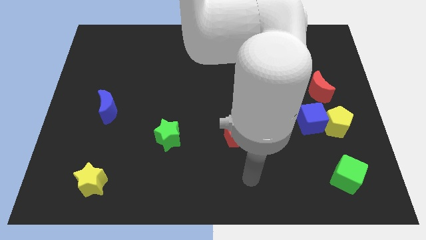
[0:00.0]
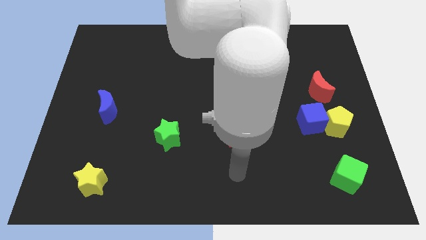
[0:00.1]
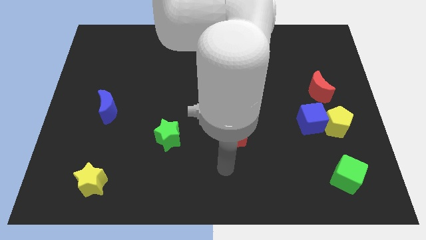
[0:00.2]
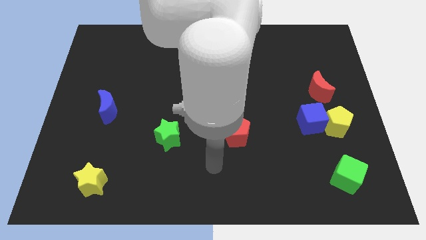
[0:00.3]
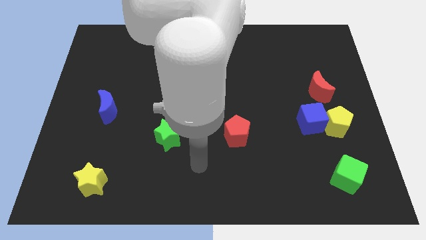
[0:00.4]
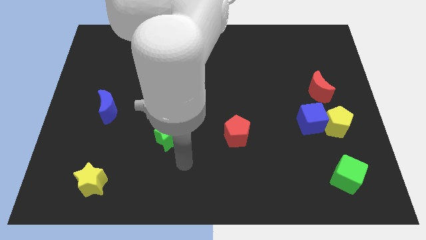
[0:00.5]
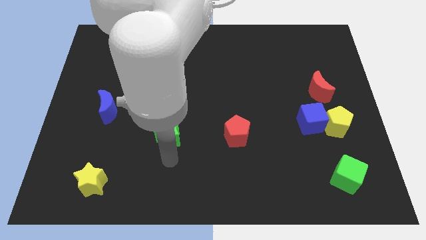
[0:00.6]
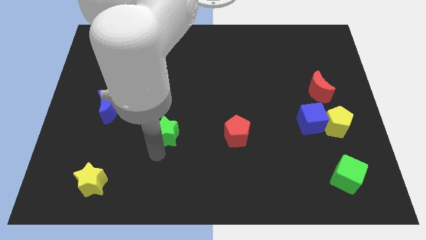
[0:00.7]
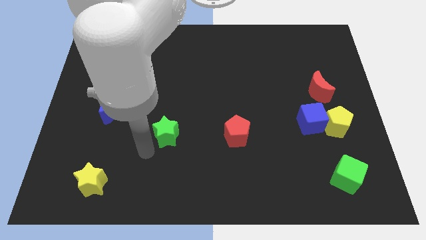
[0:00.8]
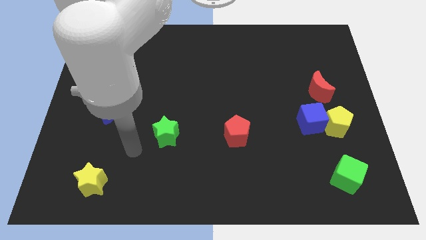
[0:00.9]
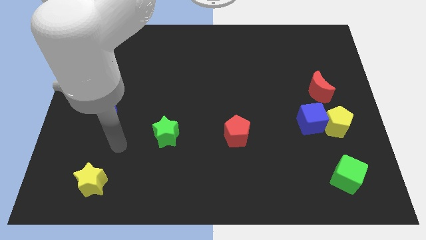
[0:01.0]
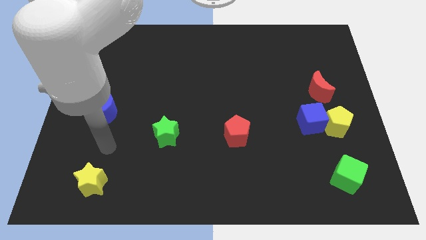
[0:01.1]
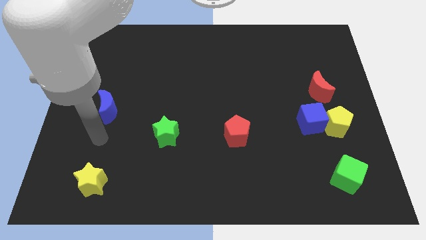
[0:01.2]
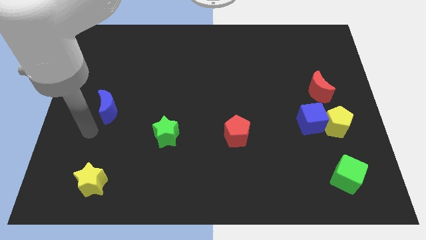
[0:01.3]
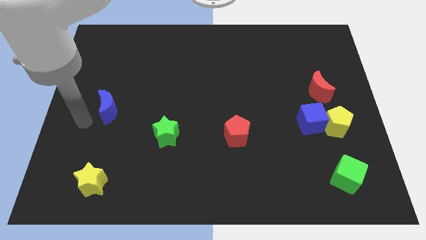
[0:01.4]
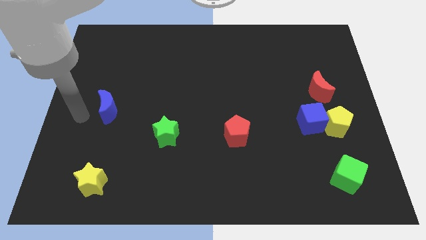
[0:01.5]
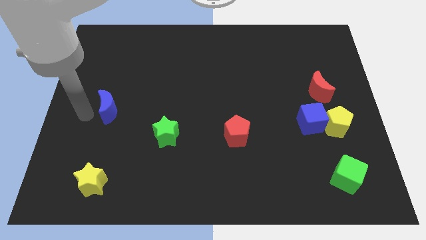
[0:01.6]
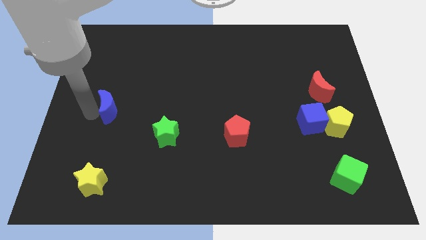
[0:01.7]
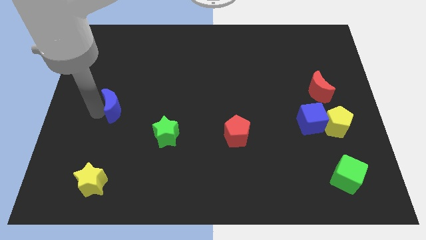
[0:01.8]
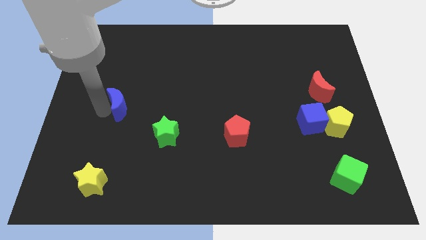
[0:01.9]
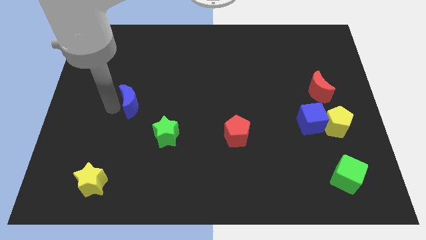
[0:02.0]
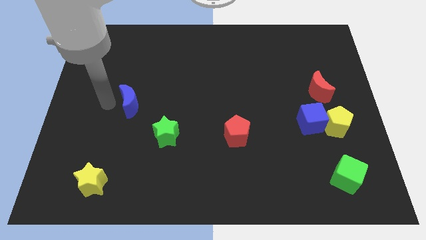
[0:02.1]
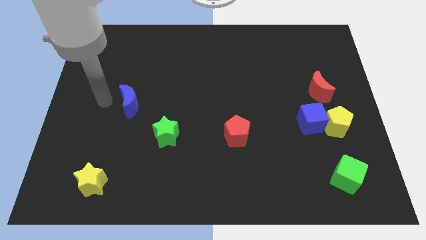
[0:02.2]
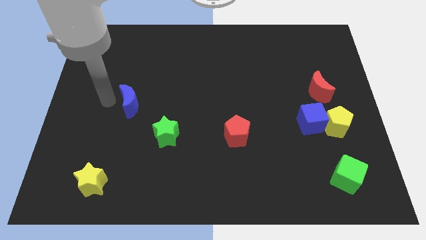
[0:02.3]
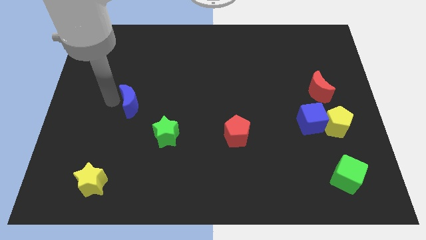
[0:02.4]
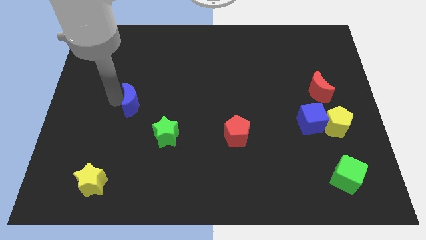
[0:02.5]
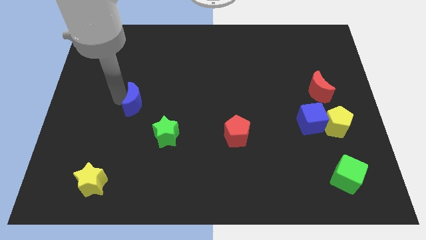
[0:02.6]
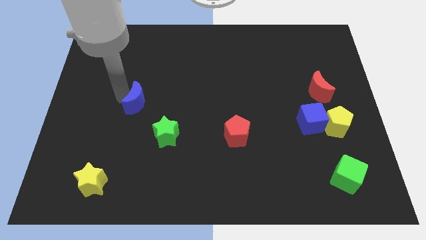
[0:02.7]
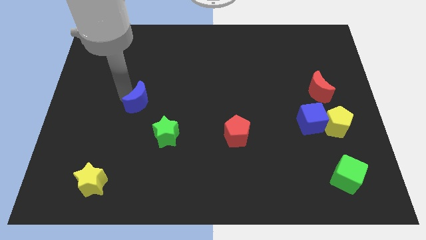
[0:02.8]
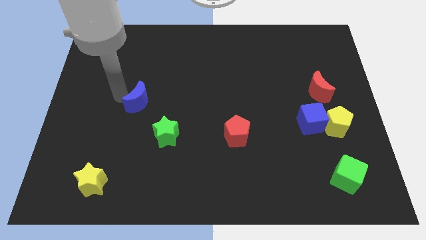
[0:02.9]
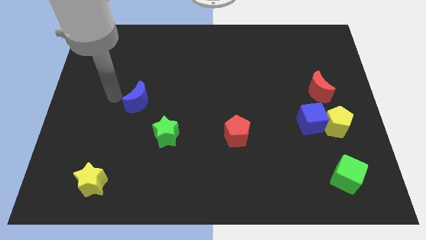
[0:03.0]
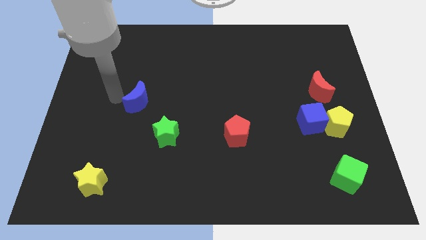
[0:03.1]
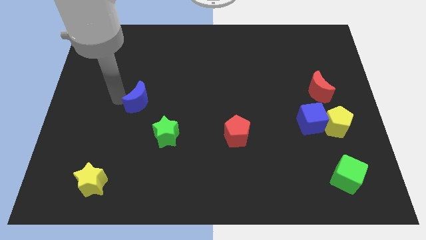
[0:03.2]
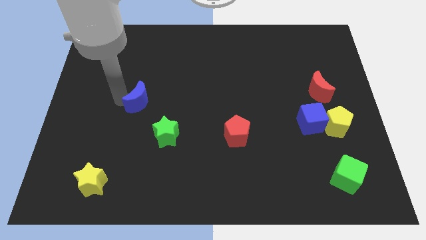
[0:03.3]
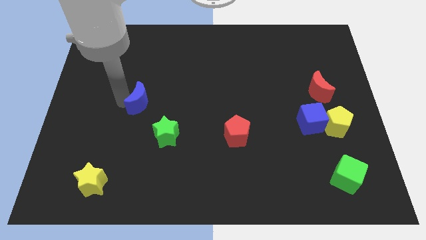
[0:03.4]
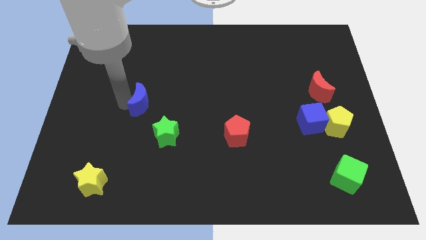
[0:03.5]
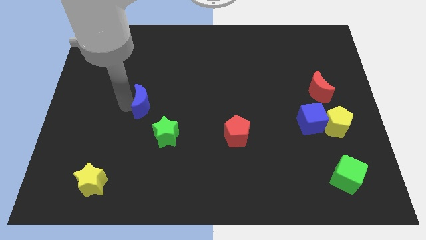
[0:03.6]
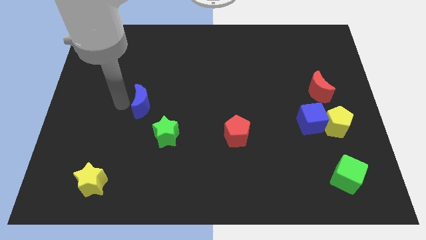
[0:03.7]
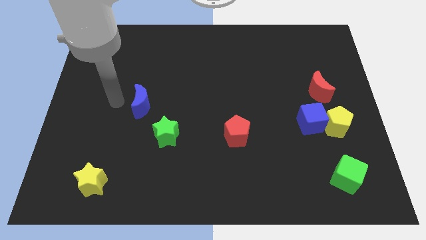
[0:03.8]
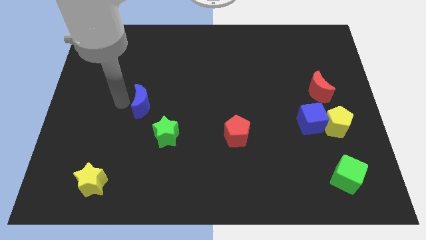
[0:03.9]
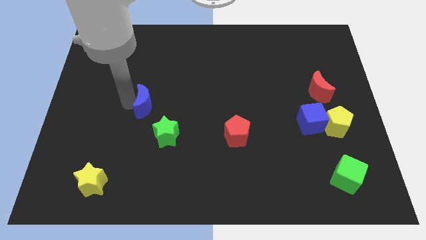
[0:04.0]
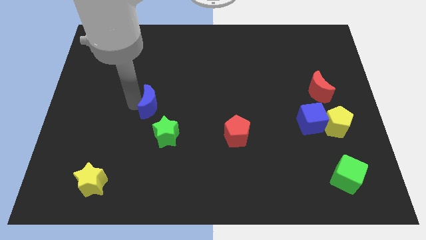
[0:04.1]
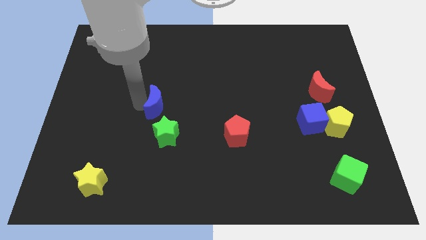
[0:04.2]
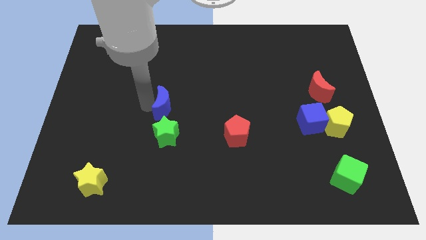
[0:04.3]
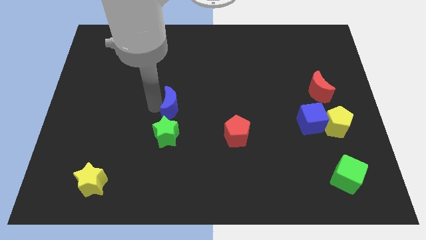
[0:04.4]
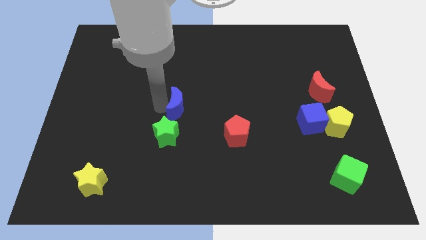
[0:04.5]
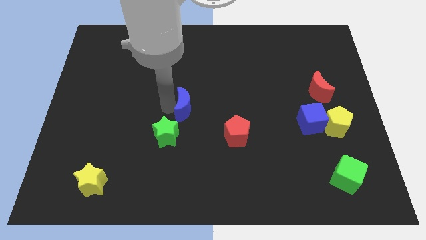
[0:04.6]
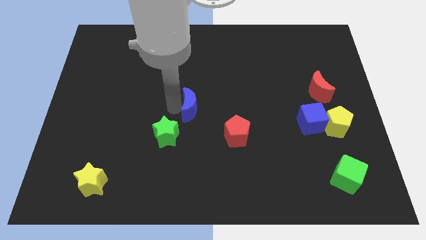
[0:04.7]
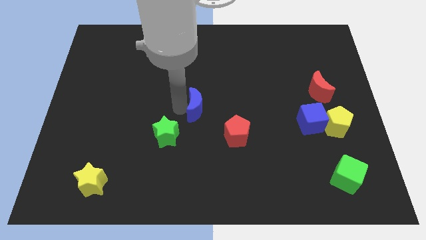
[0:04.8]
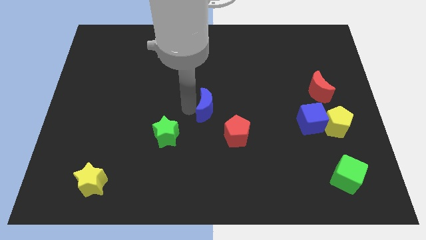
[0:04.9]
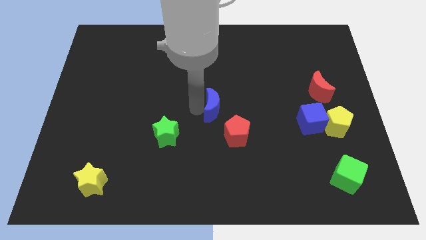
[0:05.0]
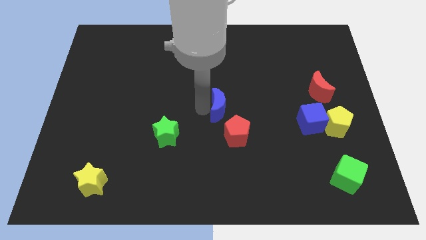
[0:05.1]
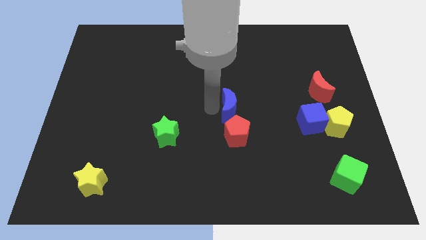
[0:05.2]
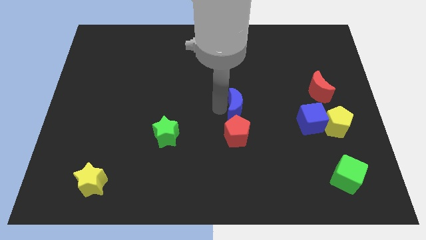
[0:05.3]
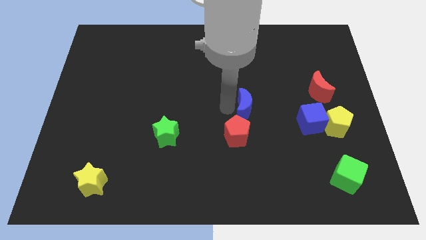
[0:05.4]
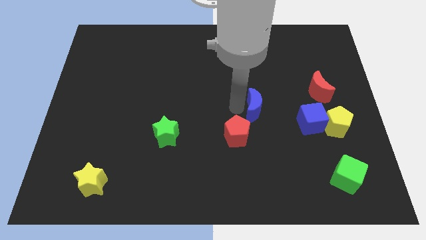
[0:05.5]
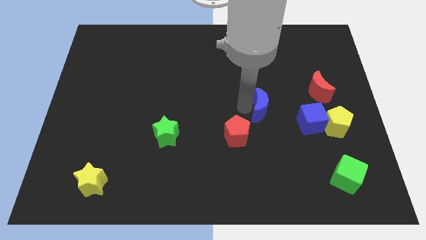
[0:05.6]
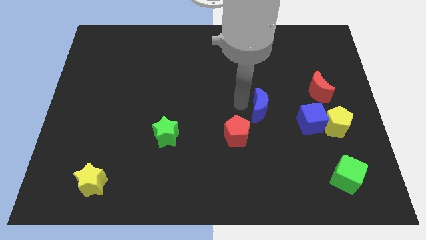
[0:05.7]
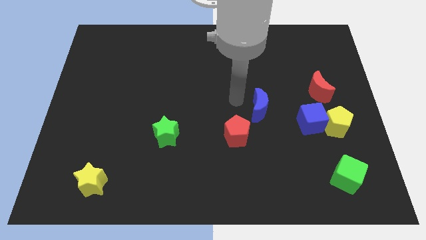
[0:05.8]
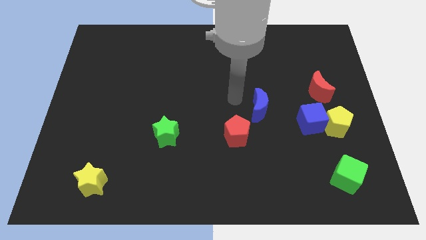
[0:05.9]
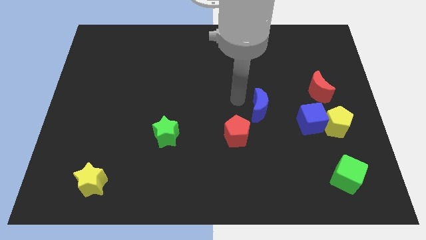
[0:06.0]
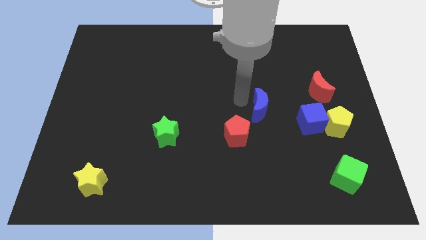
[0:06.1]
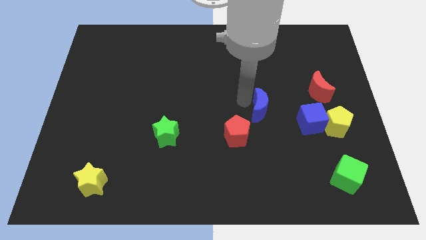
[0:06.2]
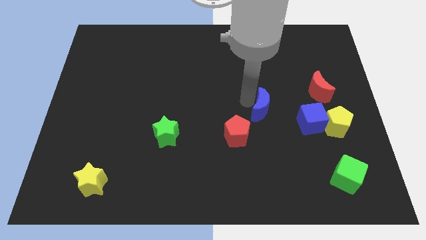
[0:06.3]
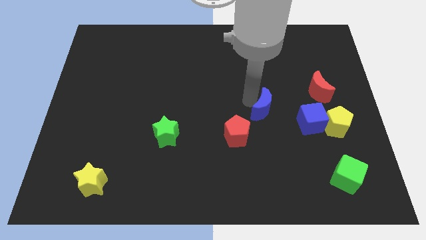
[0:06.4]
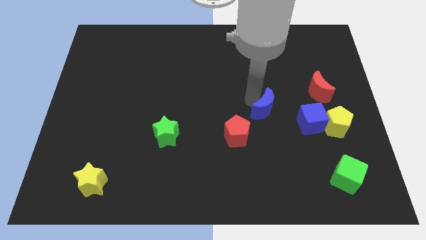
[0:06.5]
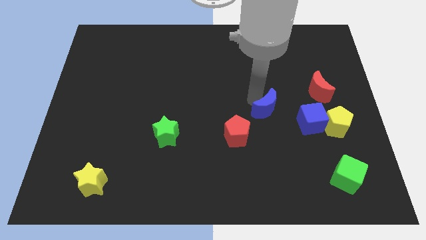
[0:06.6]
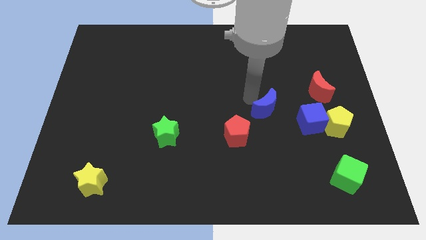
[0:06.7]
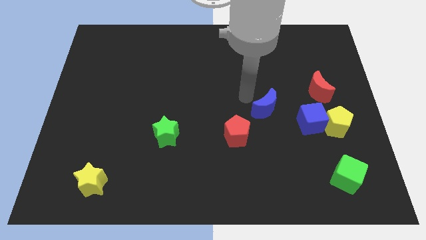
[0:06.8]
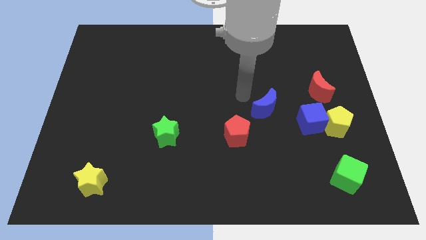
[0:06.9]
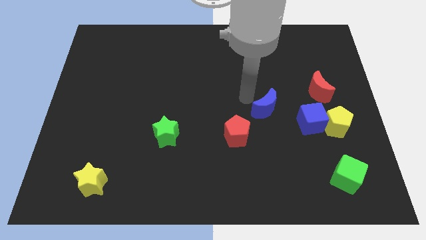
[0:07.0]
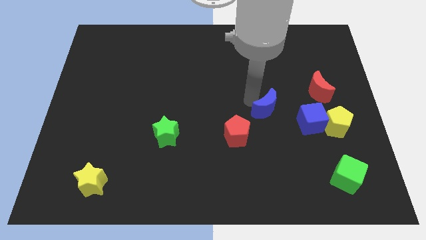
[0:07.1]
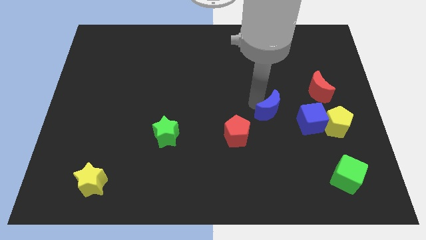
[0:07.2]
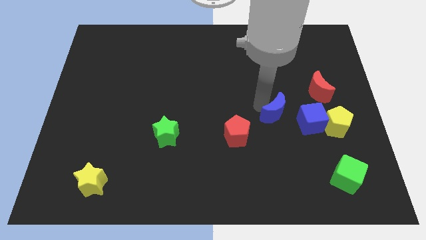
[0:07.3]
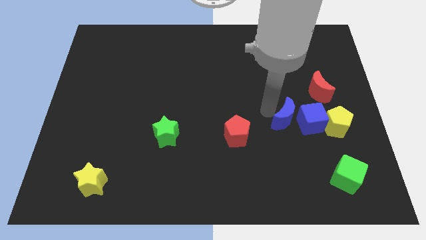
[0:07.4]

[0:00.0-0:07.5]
move the blue moon next to the blue cube
